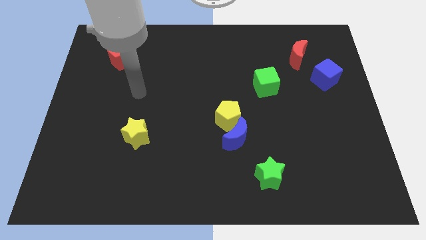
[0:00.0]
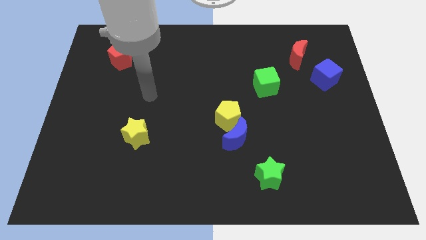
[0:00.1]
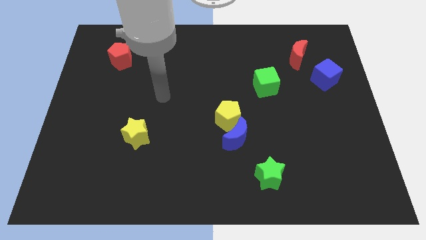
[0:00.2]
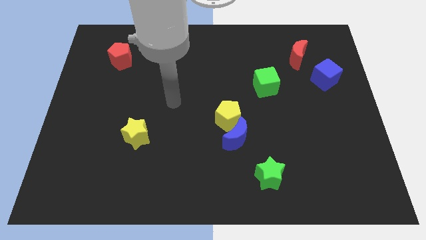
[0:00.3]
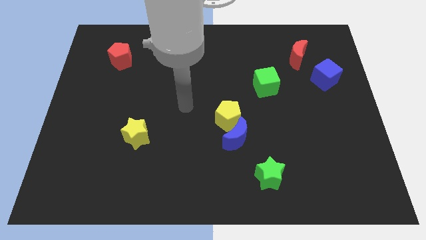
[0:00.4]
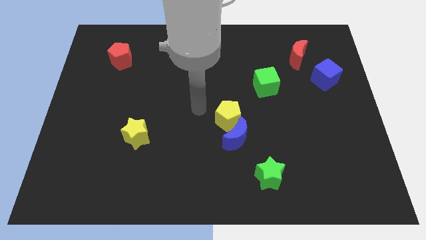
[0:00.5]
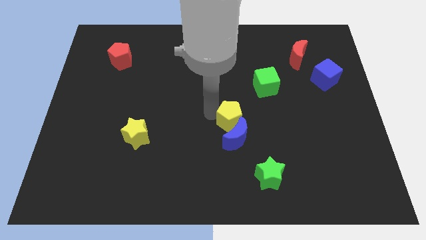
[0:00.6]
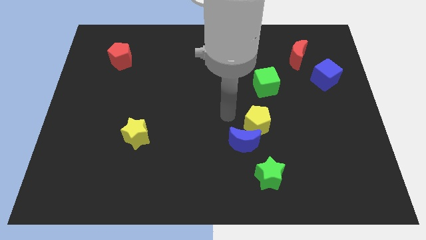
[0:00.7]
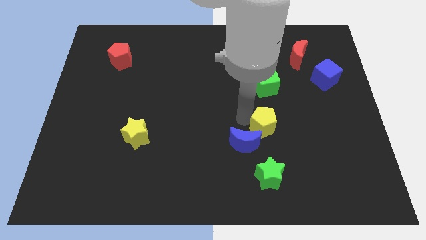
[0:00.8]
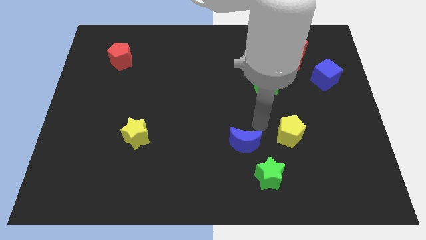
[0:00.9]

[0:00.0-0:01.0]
move the blue moon away from the yellow pentagon

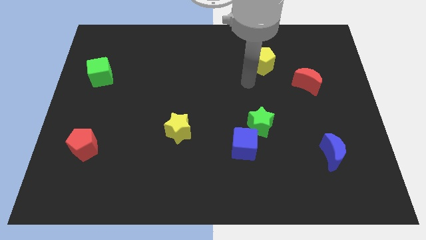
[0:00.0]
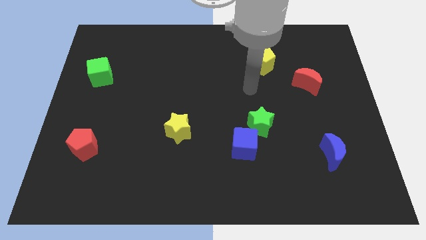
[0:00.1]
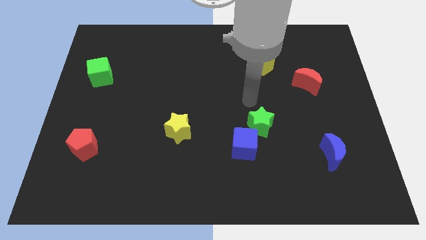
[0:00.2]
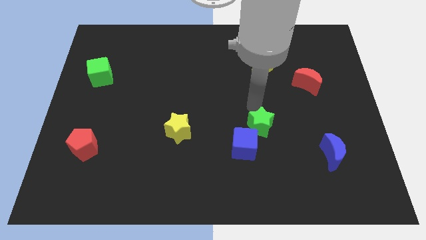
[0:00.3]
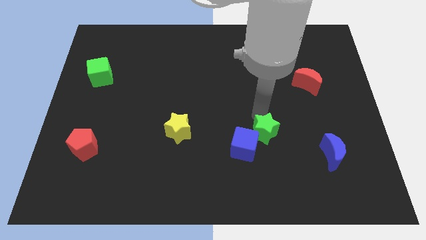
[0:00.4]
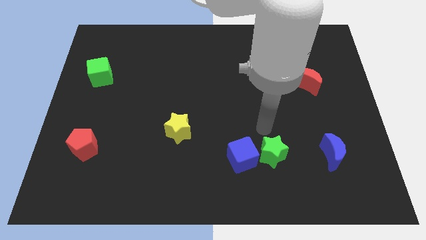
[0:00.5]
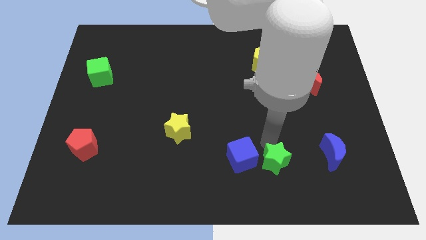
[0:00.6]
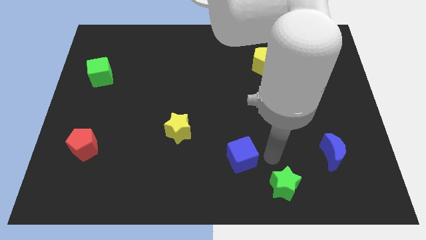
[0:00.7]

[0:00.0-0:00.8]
pull the blue cube apart from the green star

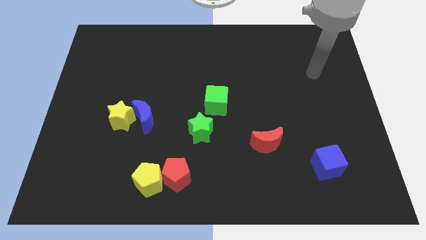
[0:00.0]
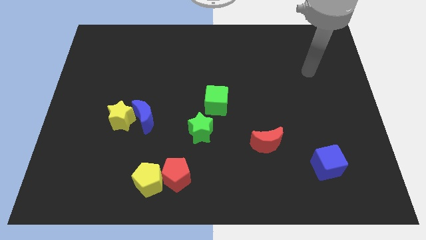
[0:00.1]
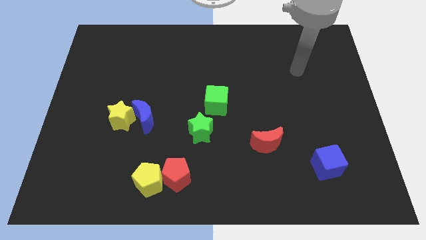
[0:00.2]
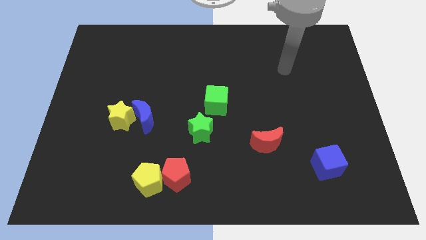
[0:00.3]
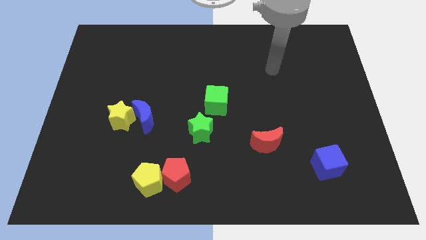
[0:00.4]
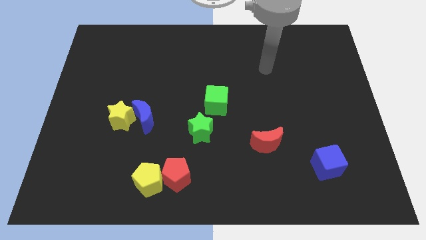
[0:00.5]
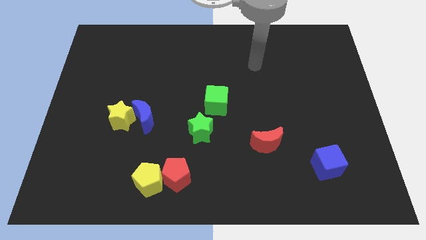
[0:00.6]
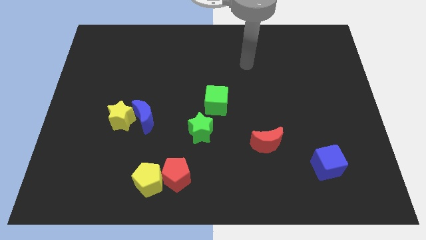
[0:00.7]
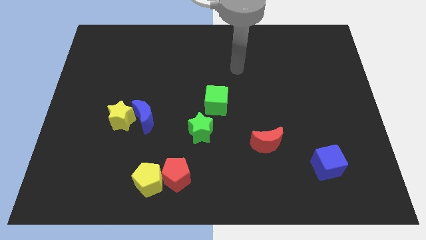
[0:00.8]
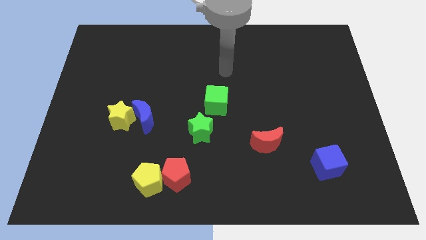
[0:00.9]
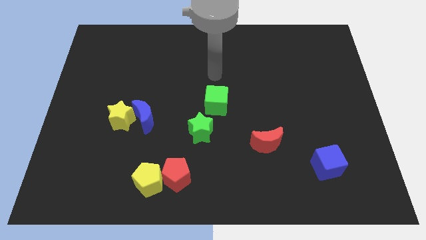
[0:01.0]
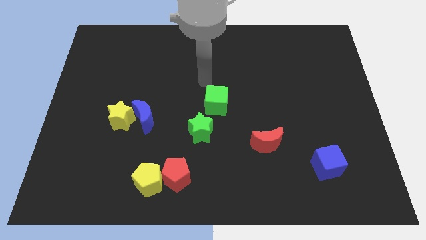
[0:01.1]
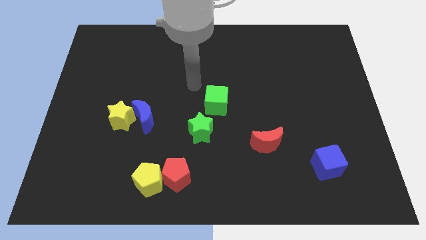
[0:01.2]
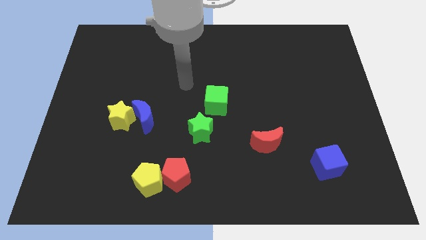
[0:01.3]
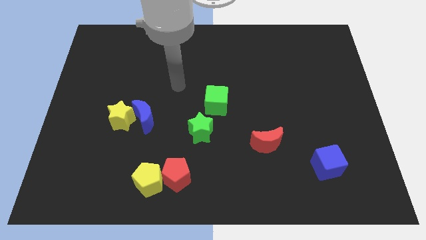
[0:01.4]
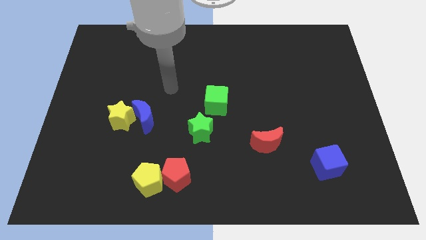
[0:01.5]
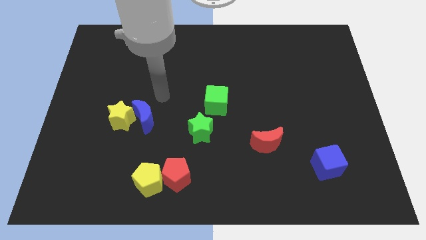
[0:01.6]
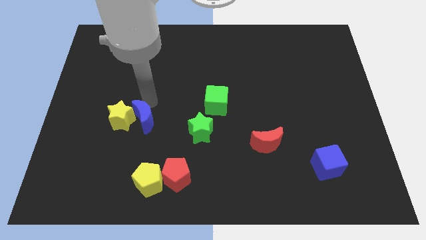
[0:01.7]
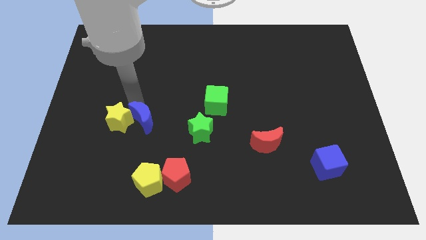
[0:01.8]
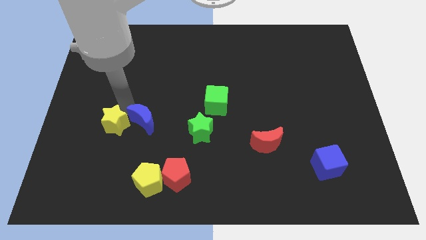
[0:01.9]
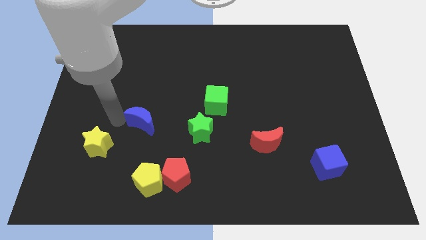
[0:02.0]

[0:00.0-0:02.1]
separate the blue moon from the yellow star

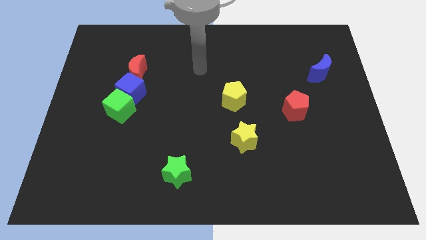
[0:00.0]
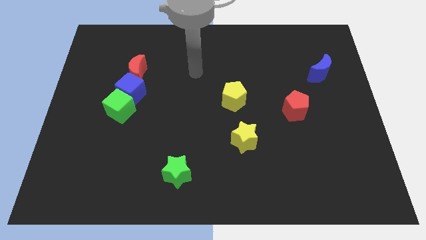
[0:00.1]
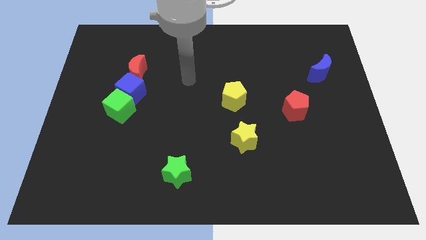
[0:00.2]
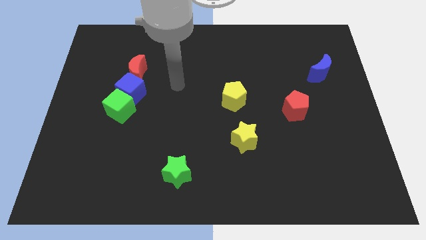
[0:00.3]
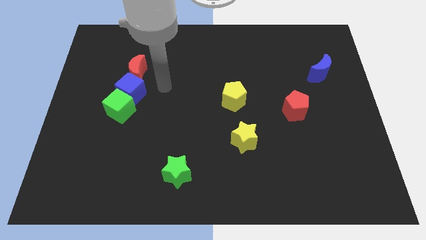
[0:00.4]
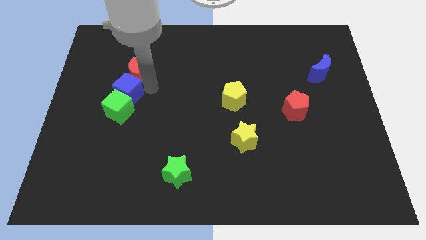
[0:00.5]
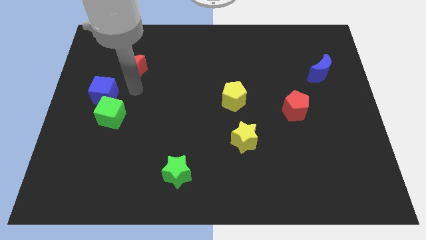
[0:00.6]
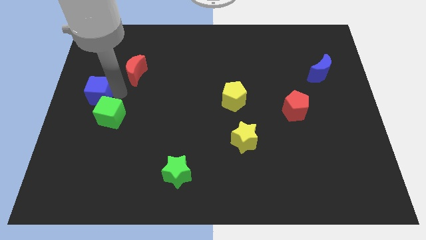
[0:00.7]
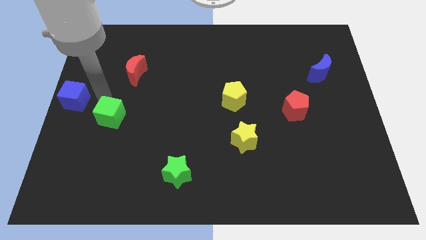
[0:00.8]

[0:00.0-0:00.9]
move the green cube away from the blue cube

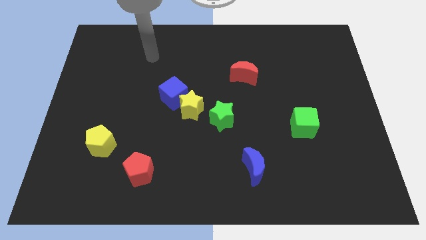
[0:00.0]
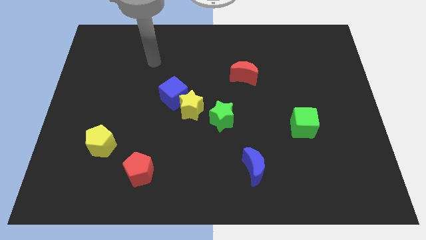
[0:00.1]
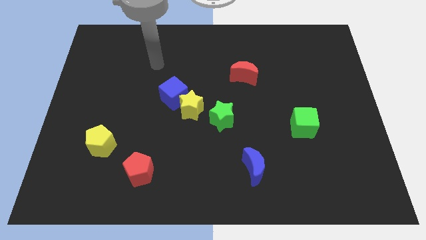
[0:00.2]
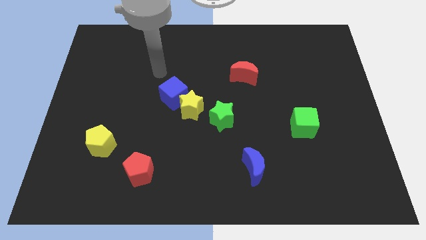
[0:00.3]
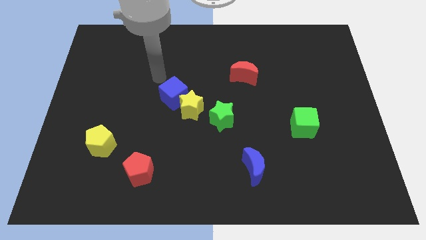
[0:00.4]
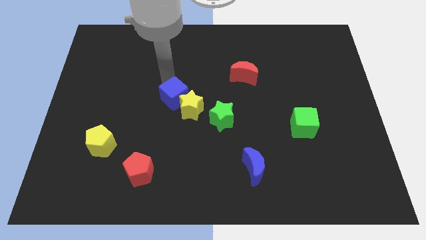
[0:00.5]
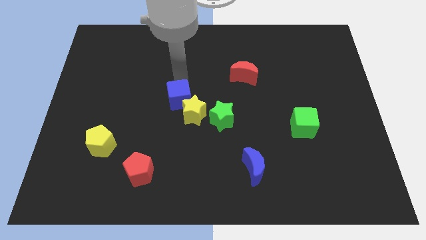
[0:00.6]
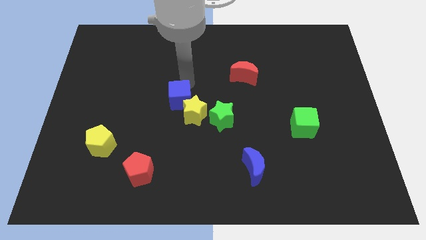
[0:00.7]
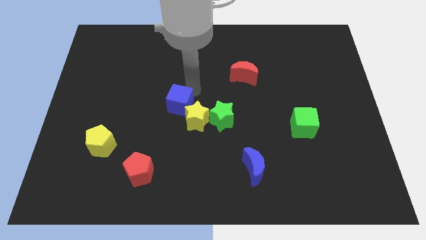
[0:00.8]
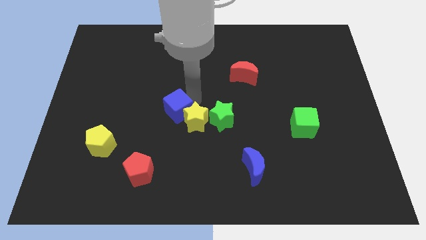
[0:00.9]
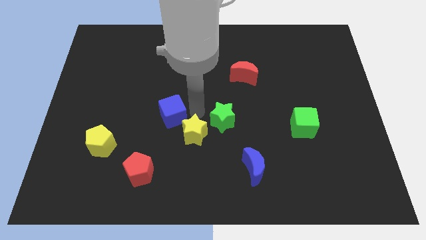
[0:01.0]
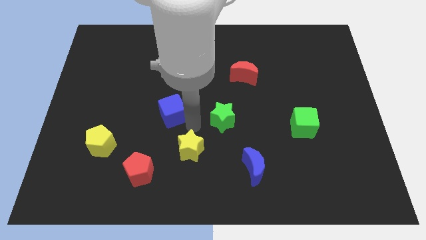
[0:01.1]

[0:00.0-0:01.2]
move the blue cube away from the yellow star

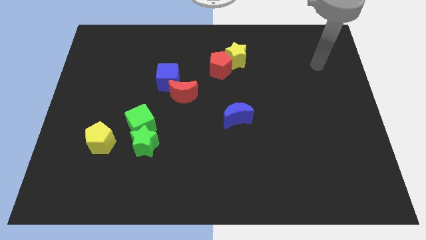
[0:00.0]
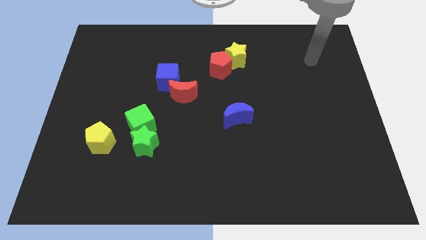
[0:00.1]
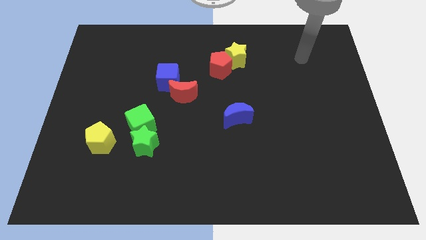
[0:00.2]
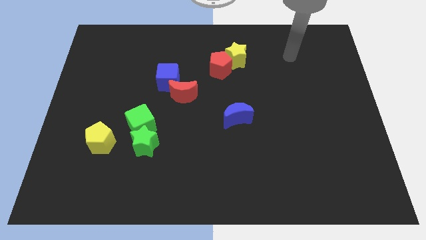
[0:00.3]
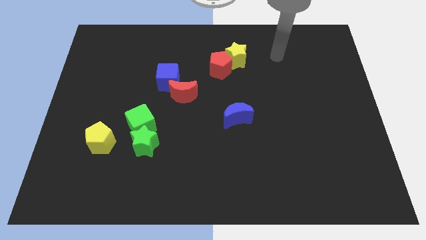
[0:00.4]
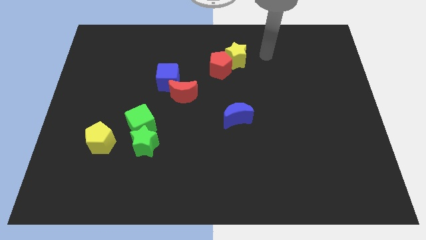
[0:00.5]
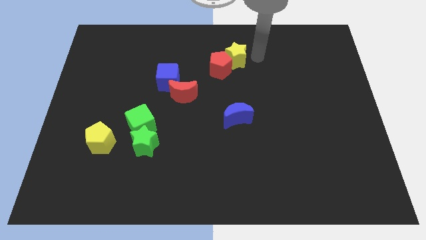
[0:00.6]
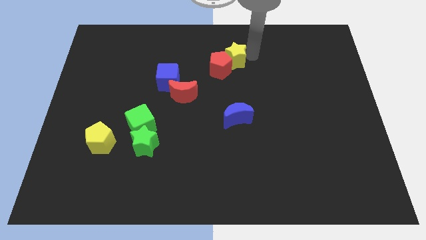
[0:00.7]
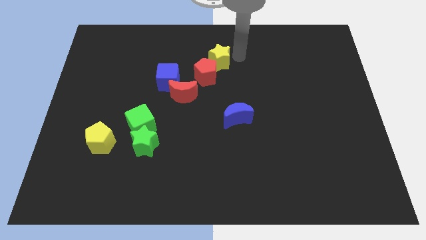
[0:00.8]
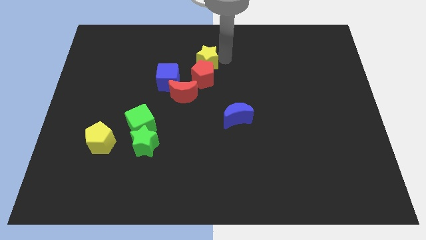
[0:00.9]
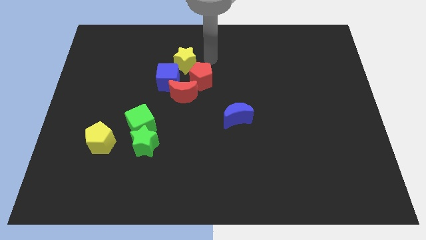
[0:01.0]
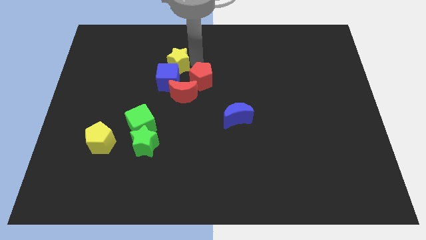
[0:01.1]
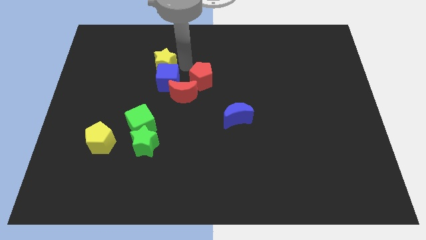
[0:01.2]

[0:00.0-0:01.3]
separate the red pentagon from the yellow star

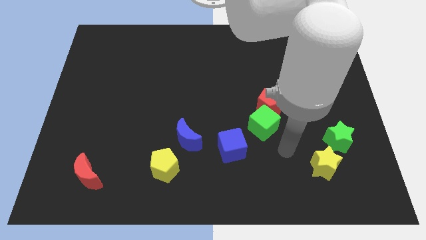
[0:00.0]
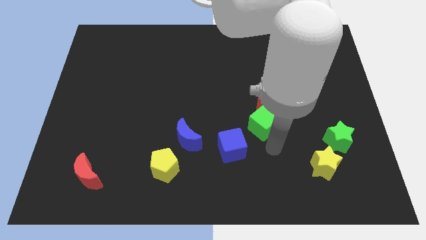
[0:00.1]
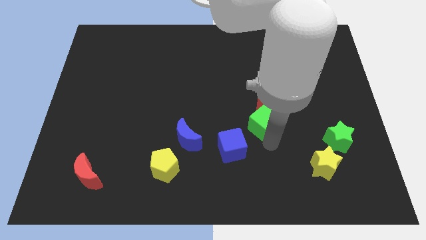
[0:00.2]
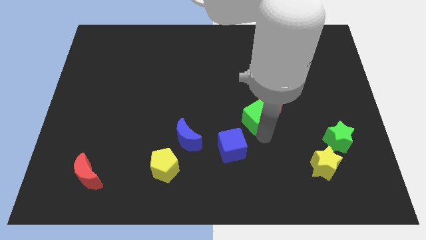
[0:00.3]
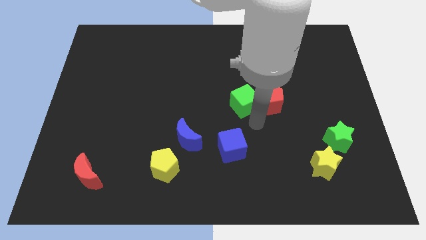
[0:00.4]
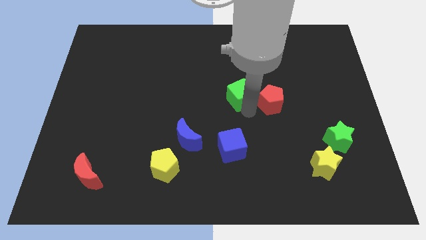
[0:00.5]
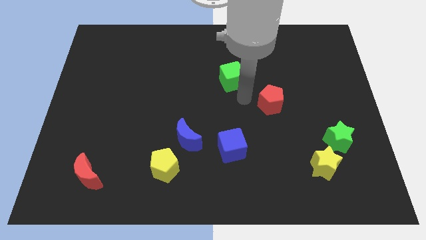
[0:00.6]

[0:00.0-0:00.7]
separate the red pentagon from the green cube

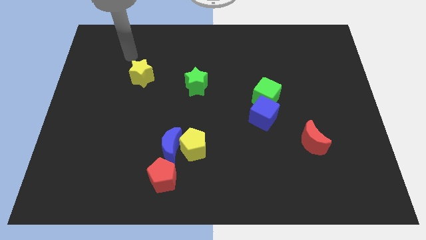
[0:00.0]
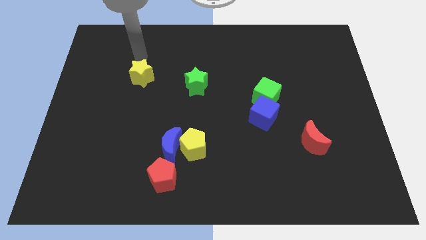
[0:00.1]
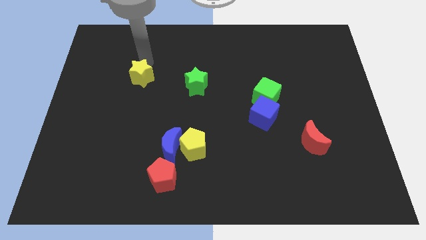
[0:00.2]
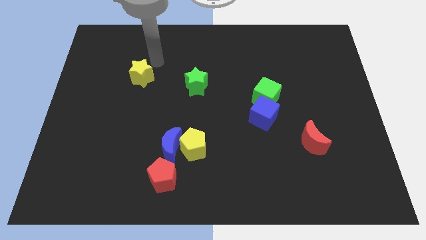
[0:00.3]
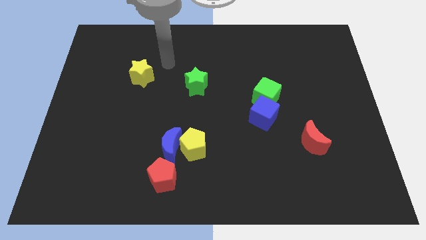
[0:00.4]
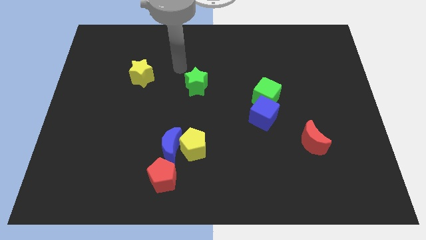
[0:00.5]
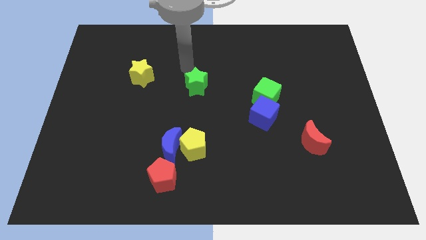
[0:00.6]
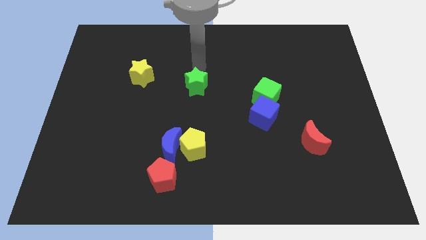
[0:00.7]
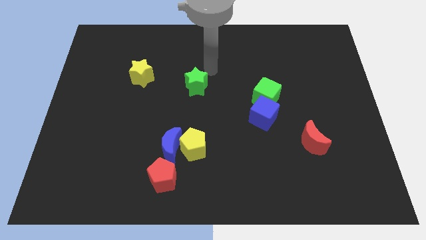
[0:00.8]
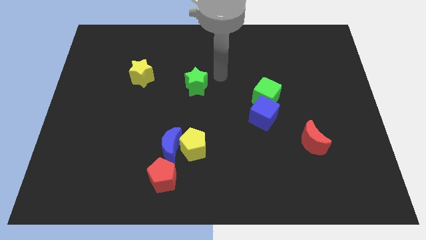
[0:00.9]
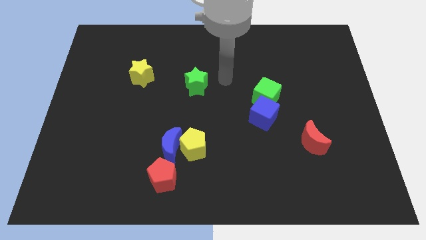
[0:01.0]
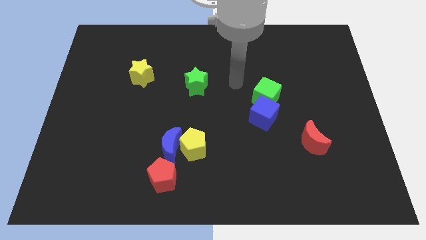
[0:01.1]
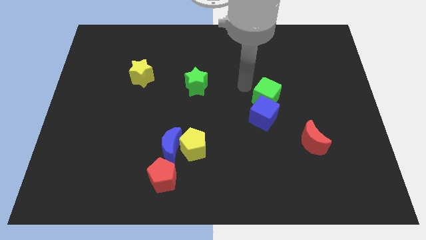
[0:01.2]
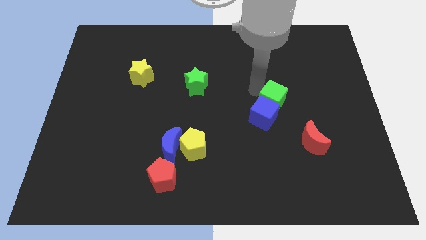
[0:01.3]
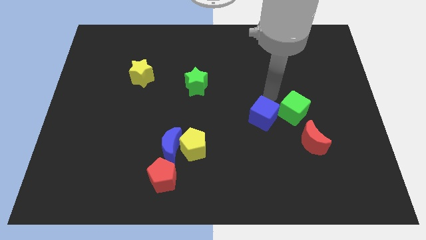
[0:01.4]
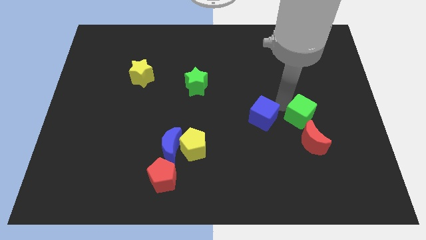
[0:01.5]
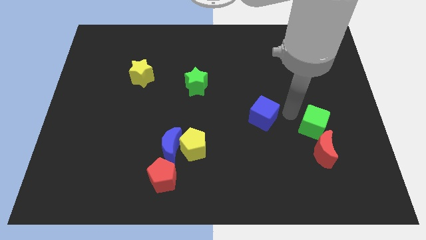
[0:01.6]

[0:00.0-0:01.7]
move the blue cube away from the green cube
